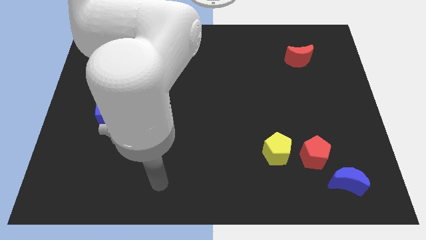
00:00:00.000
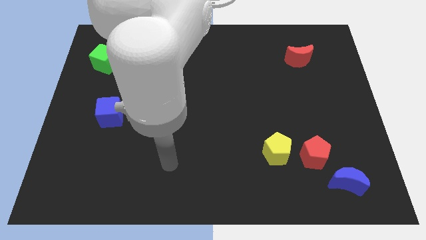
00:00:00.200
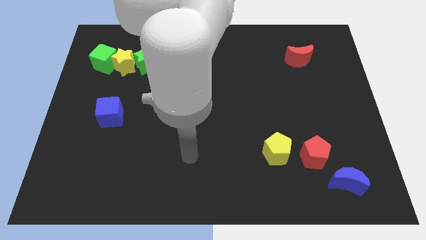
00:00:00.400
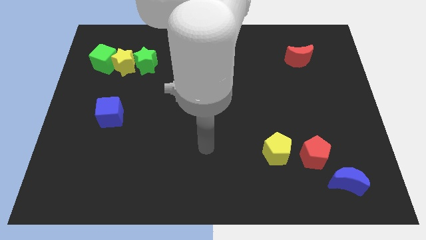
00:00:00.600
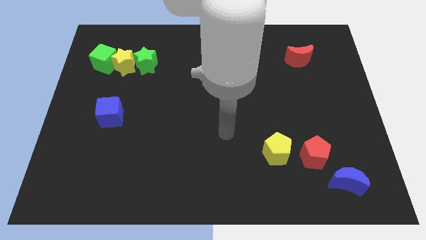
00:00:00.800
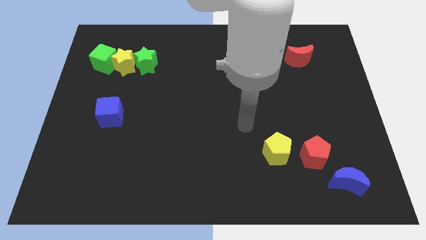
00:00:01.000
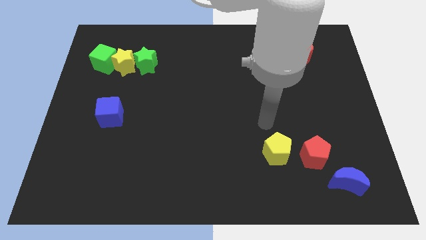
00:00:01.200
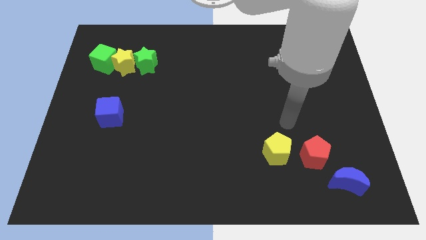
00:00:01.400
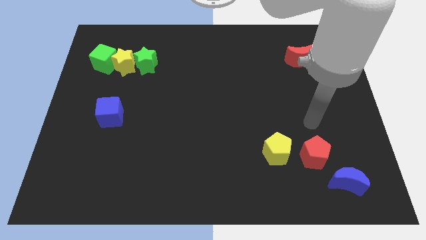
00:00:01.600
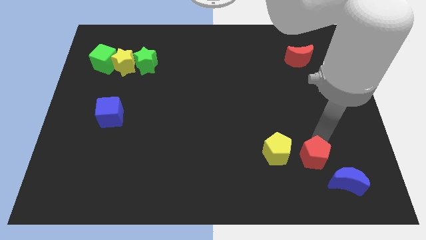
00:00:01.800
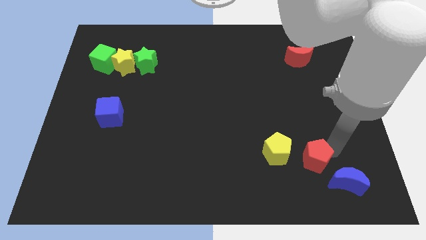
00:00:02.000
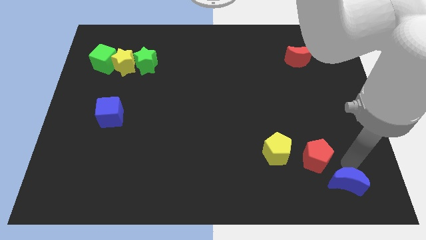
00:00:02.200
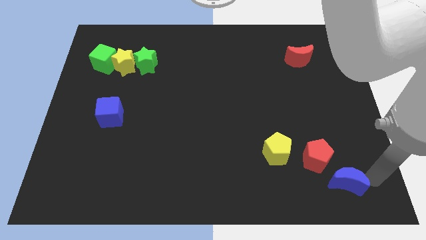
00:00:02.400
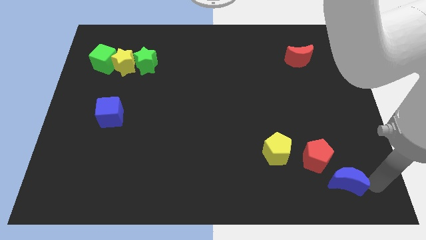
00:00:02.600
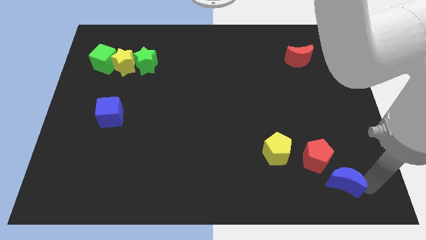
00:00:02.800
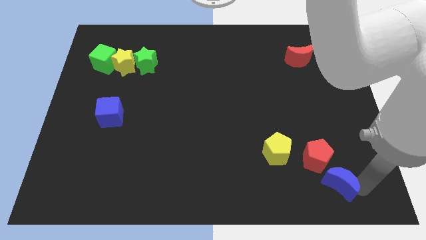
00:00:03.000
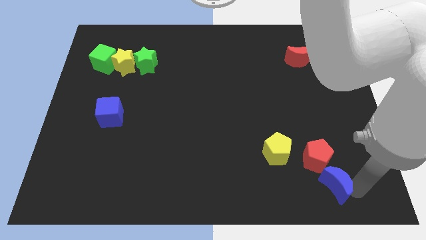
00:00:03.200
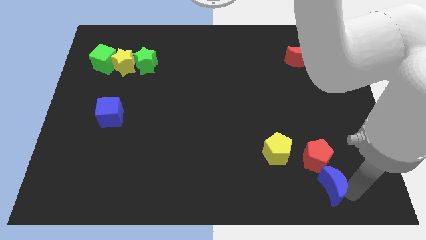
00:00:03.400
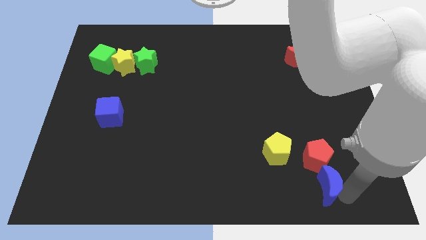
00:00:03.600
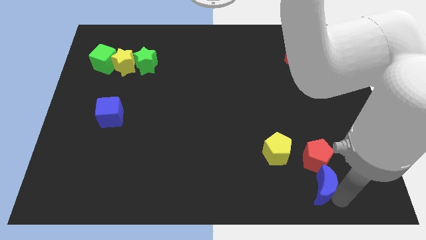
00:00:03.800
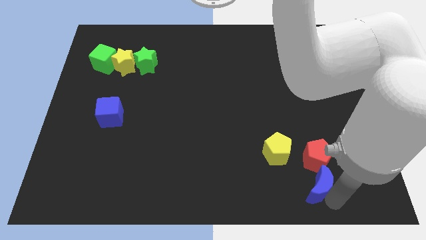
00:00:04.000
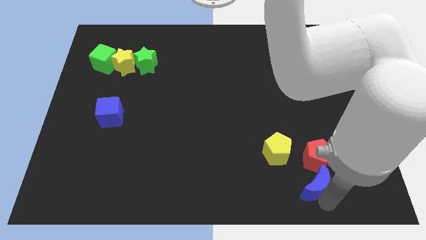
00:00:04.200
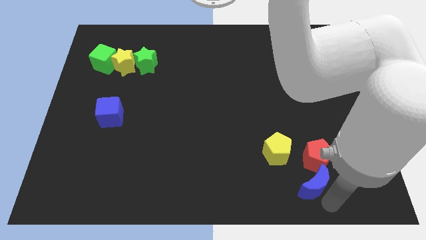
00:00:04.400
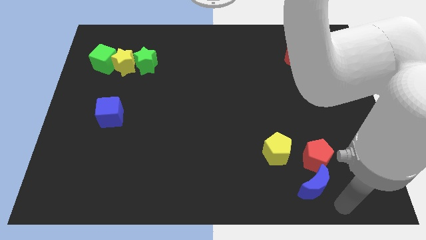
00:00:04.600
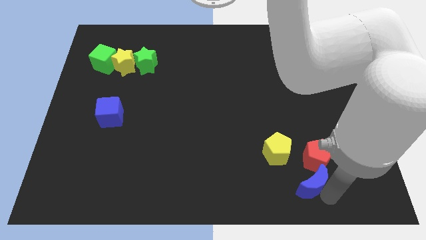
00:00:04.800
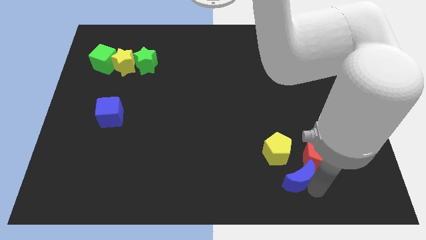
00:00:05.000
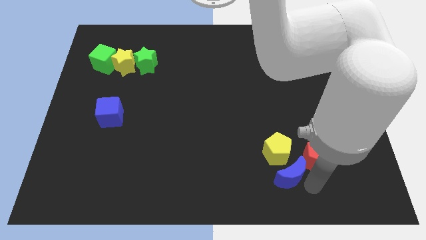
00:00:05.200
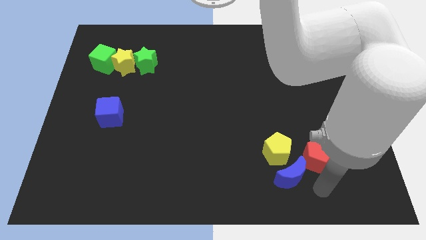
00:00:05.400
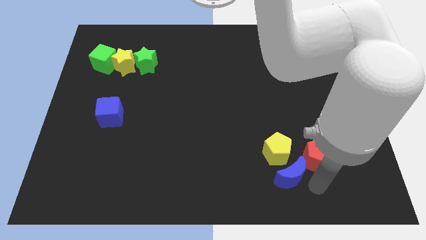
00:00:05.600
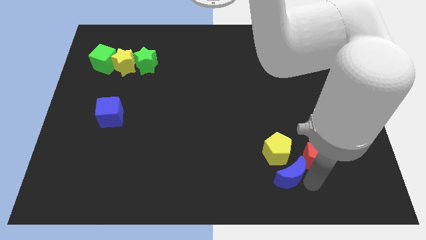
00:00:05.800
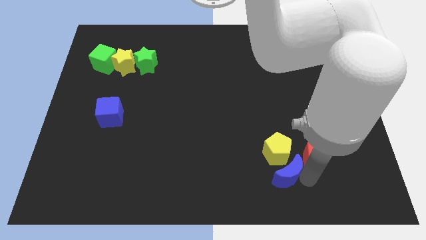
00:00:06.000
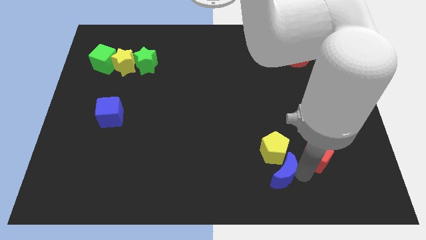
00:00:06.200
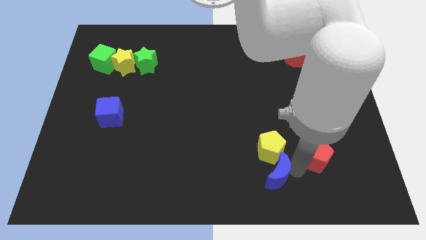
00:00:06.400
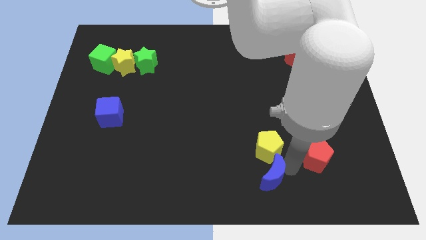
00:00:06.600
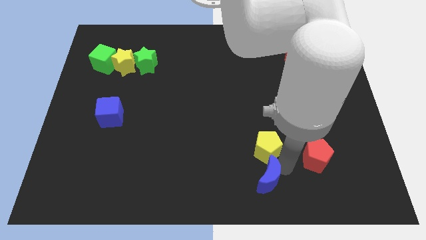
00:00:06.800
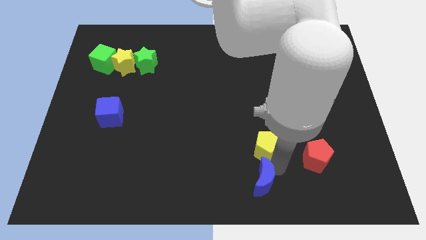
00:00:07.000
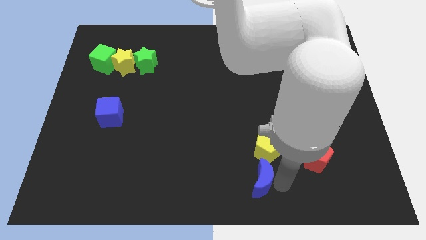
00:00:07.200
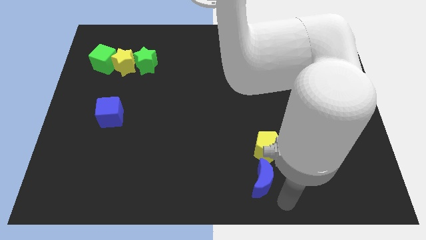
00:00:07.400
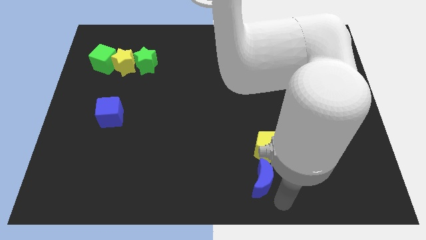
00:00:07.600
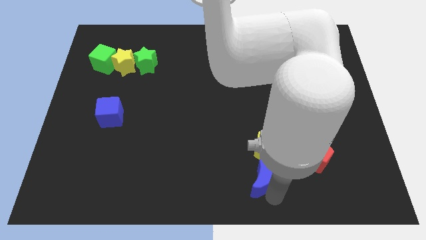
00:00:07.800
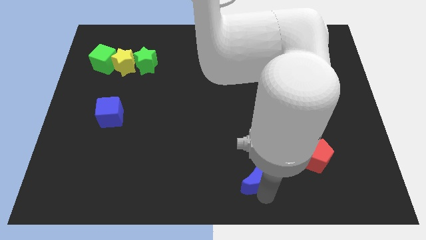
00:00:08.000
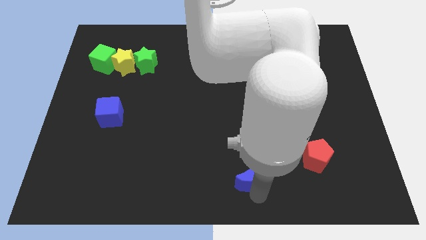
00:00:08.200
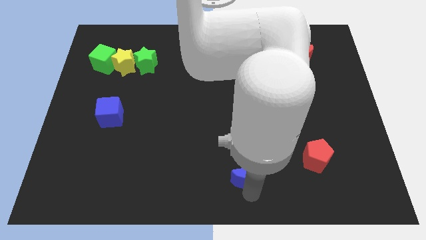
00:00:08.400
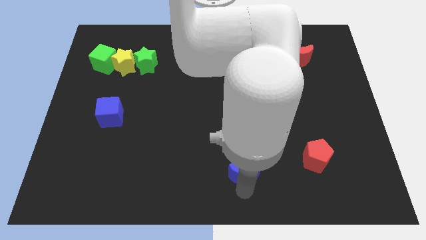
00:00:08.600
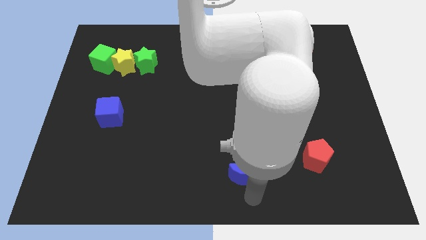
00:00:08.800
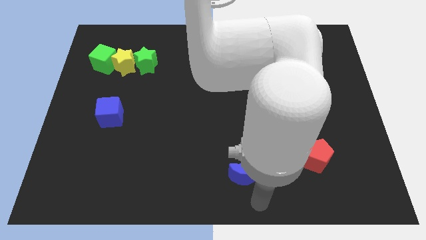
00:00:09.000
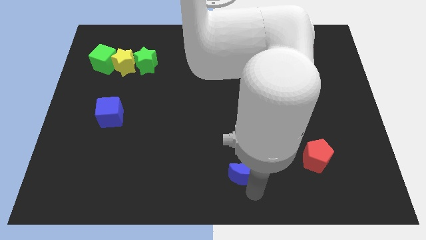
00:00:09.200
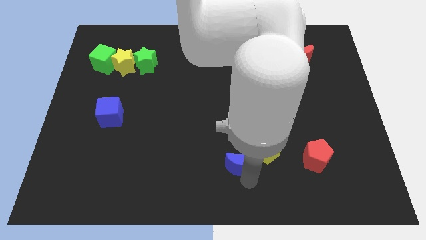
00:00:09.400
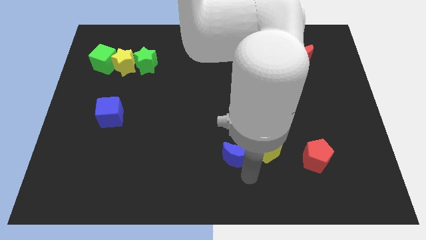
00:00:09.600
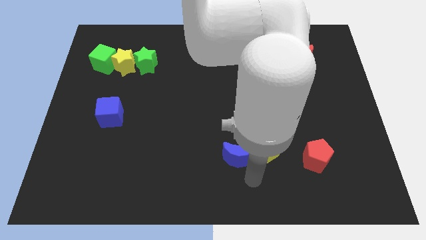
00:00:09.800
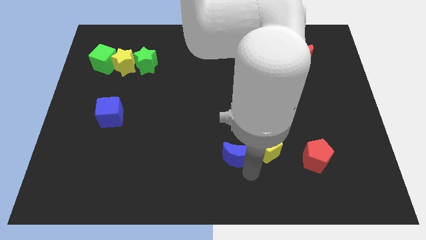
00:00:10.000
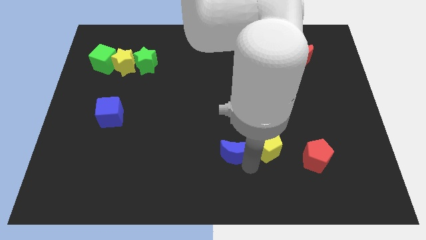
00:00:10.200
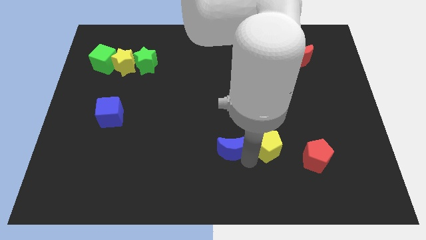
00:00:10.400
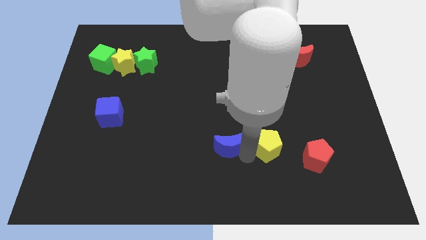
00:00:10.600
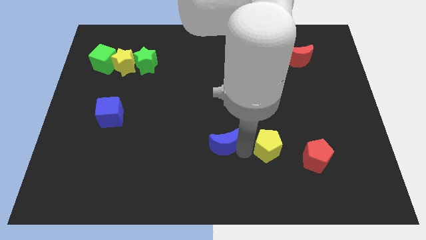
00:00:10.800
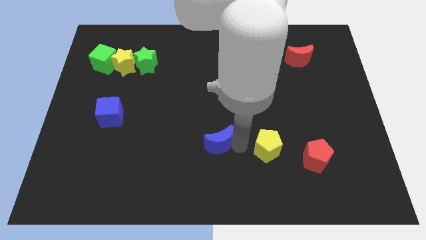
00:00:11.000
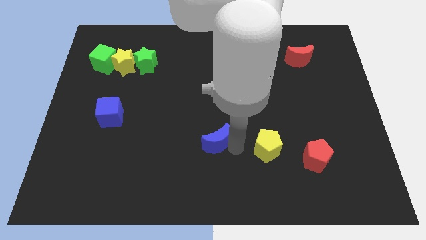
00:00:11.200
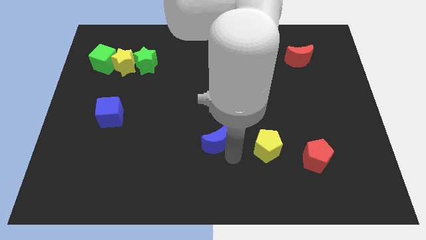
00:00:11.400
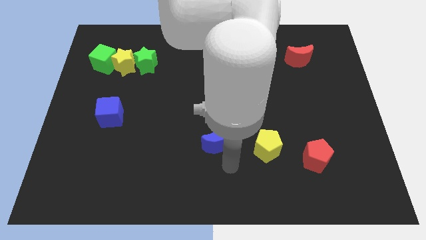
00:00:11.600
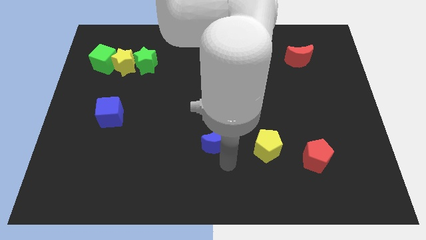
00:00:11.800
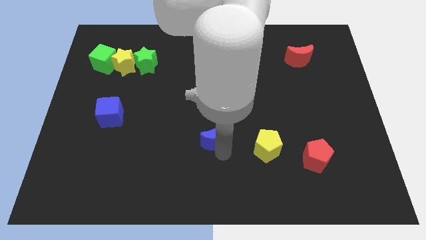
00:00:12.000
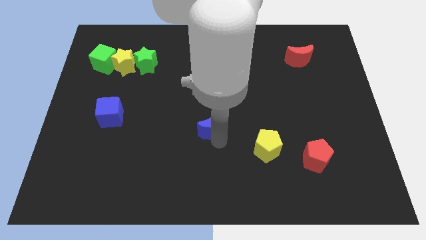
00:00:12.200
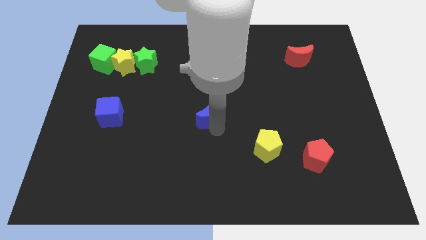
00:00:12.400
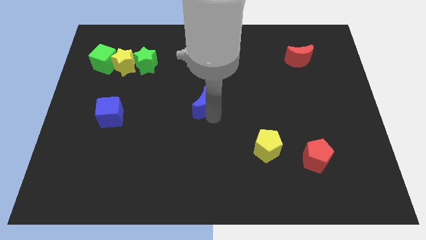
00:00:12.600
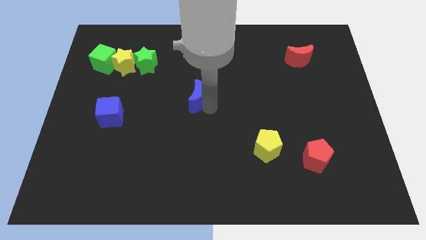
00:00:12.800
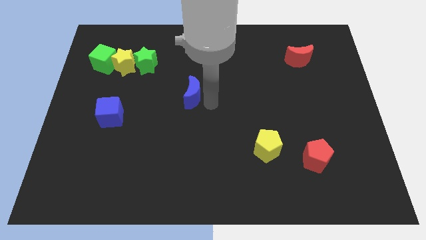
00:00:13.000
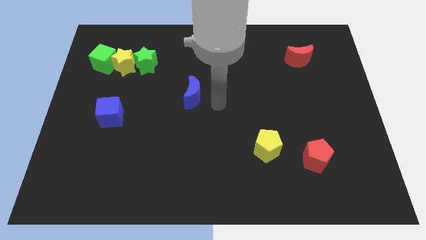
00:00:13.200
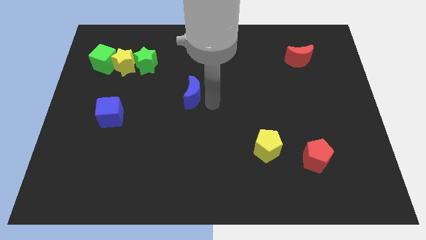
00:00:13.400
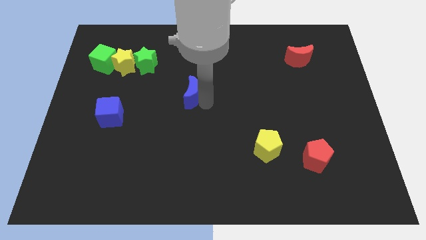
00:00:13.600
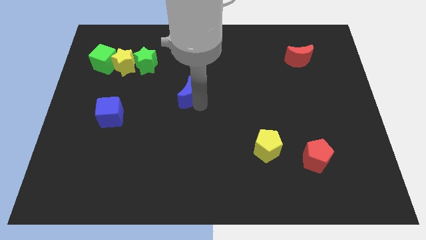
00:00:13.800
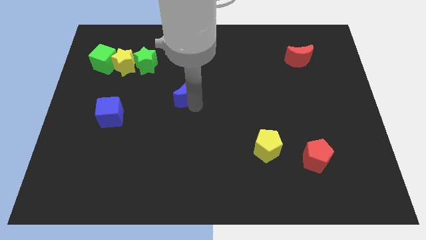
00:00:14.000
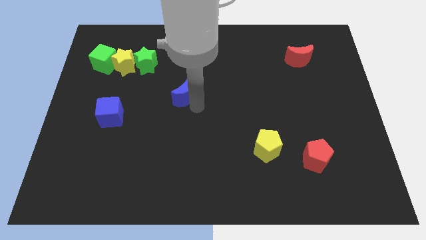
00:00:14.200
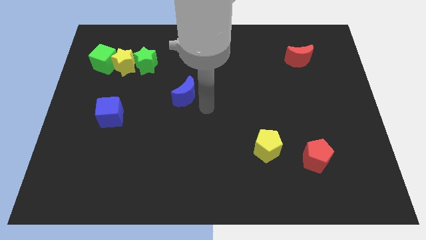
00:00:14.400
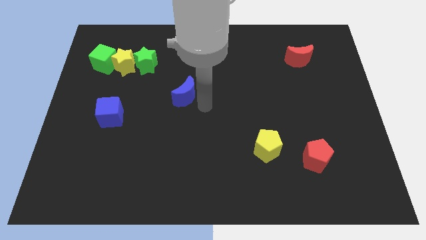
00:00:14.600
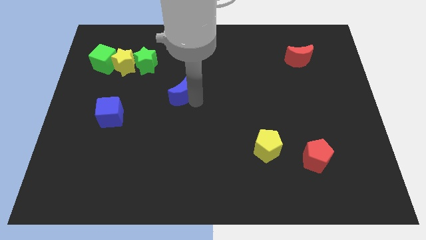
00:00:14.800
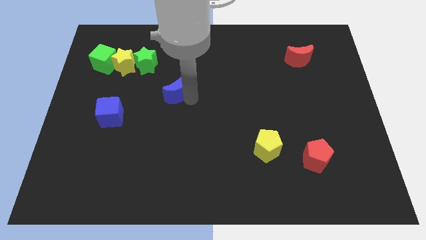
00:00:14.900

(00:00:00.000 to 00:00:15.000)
move the blue moon to the bottom right of the green star
